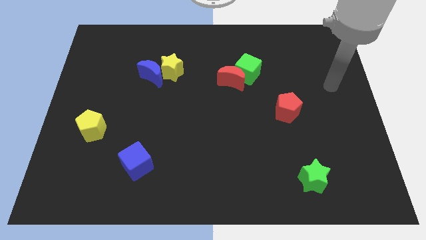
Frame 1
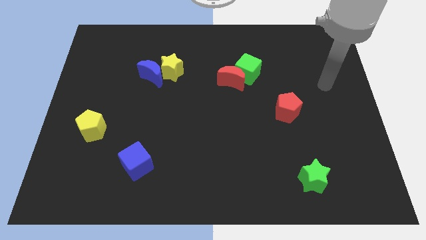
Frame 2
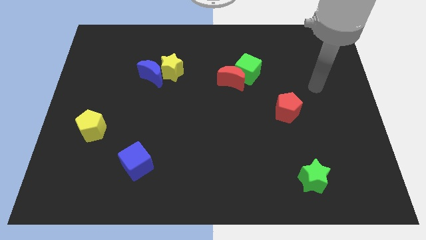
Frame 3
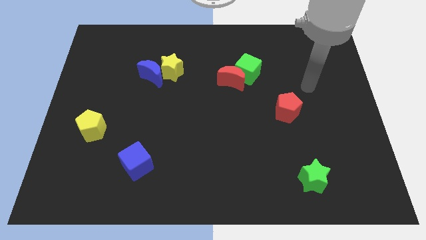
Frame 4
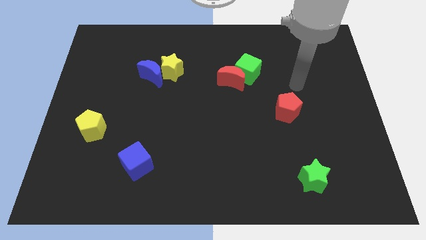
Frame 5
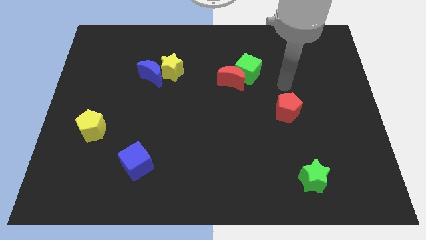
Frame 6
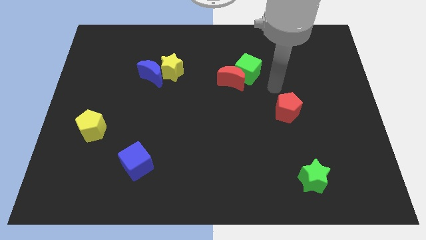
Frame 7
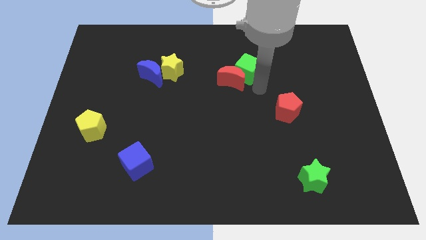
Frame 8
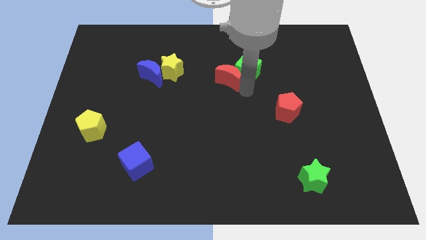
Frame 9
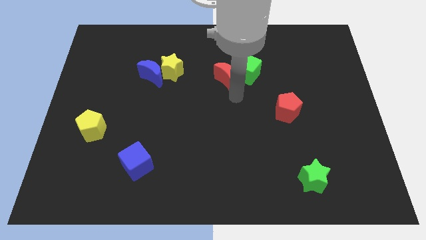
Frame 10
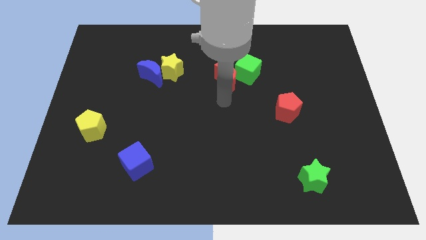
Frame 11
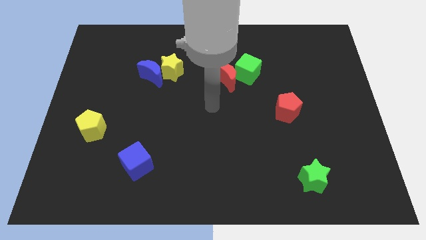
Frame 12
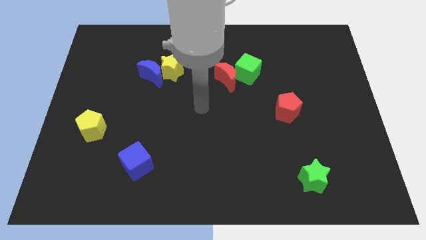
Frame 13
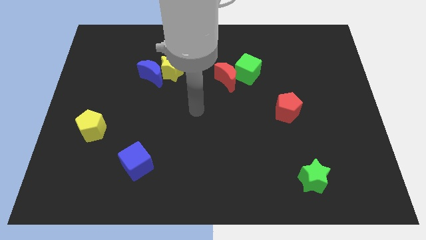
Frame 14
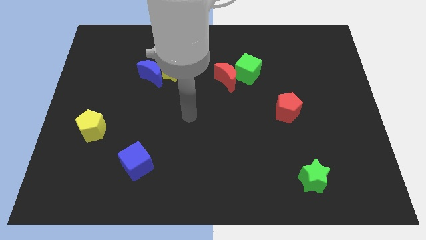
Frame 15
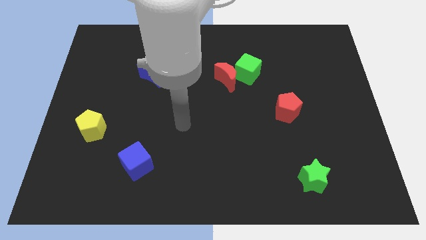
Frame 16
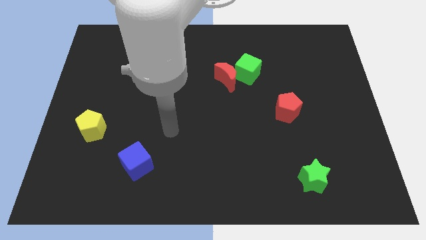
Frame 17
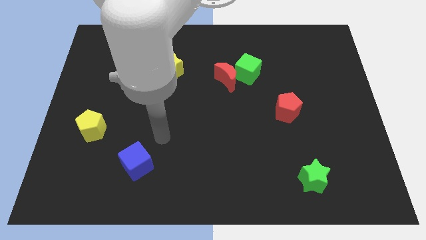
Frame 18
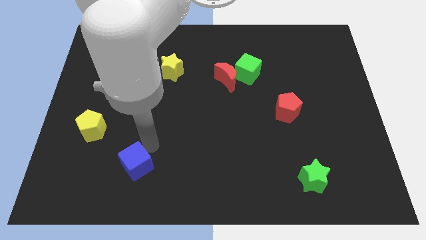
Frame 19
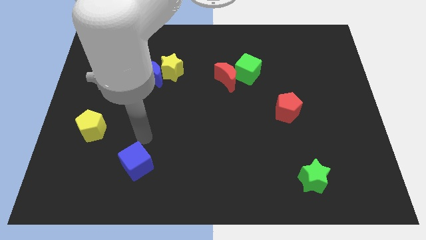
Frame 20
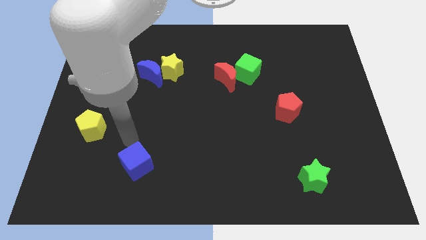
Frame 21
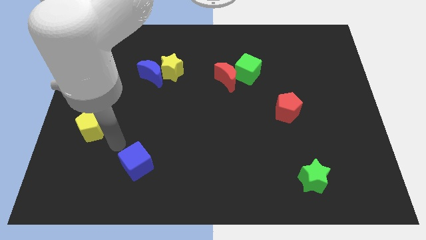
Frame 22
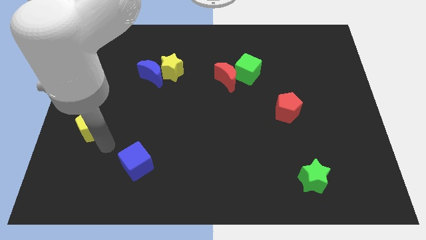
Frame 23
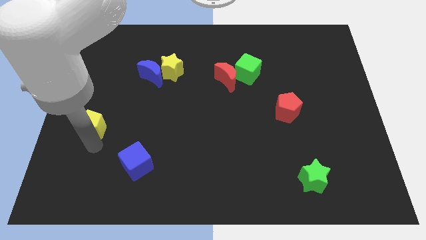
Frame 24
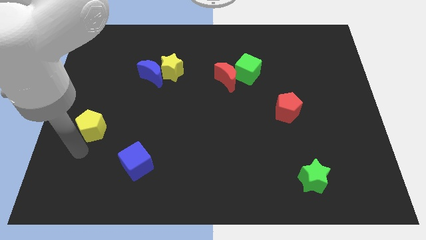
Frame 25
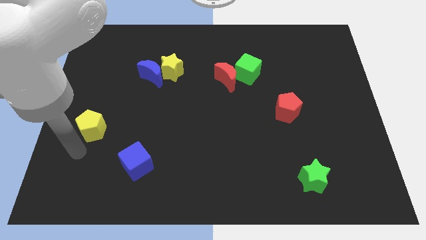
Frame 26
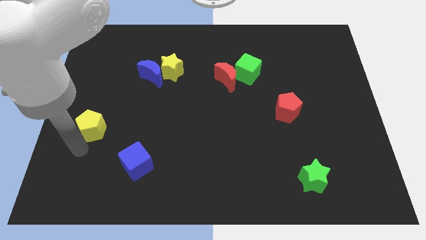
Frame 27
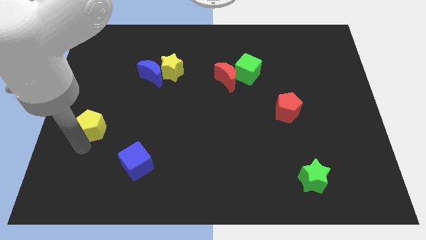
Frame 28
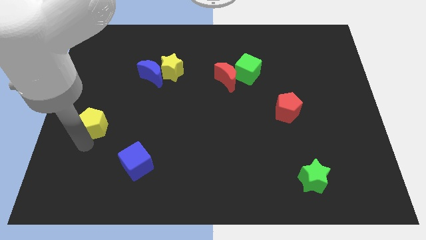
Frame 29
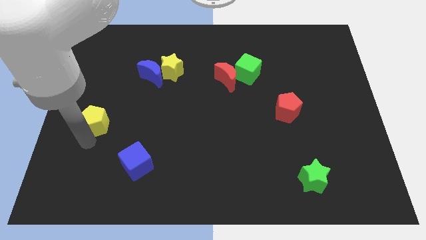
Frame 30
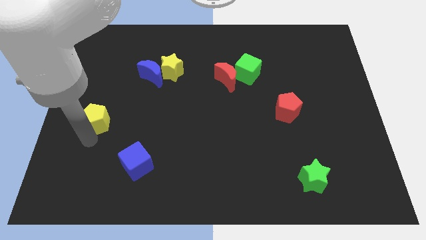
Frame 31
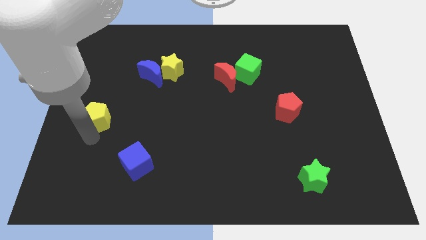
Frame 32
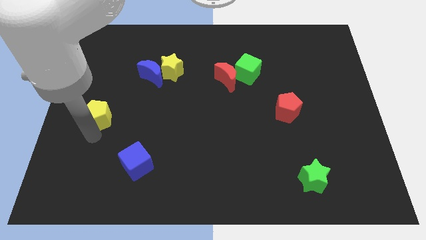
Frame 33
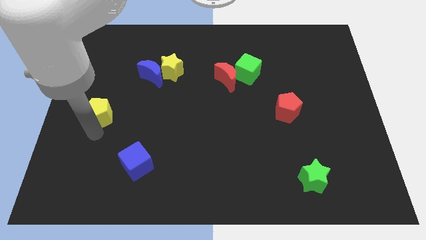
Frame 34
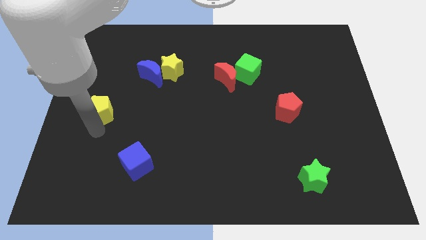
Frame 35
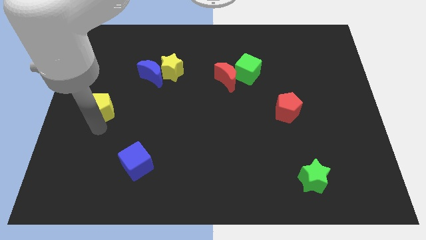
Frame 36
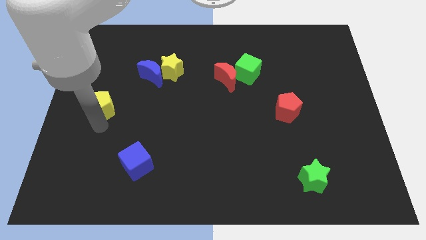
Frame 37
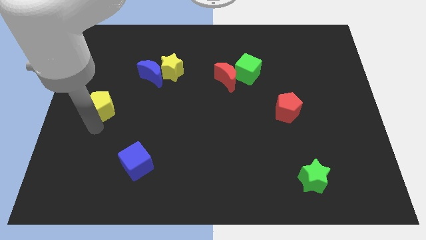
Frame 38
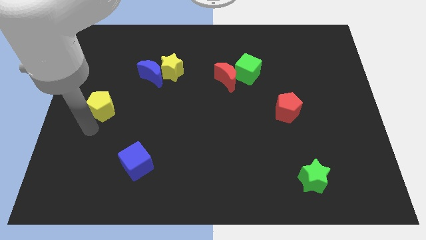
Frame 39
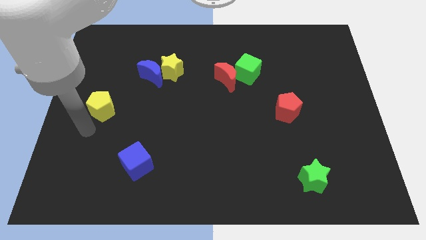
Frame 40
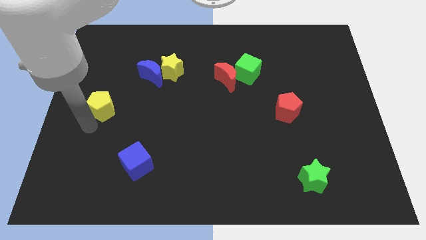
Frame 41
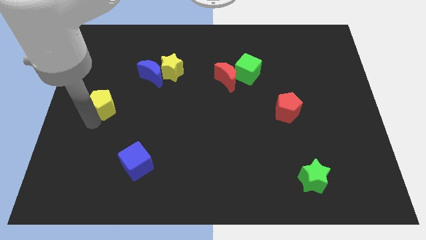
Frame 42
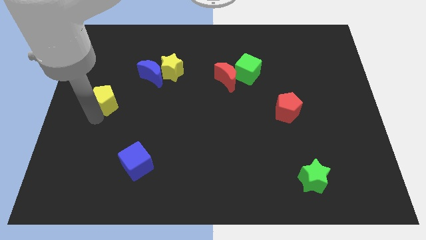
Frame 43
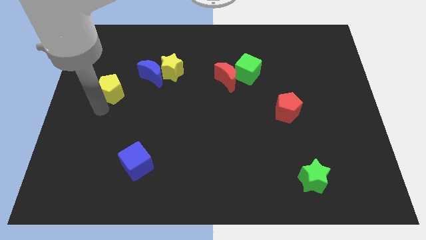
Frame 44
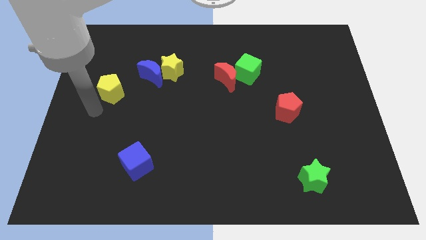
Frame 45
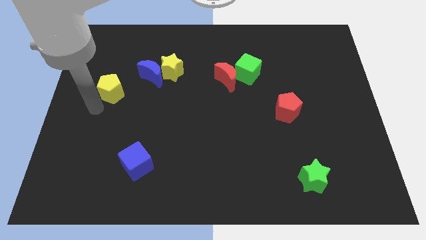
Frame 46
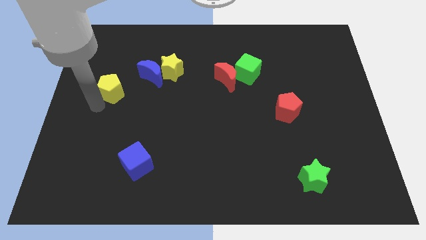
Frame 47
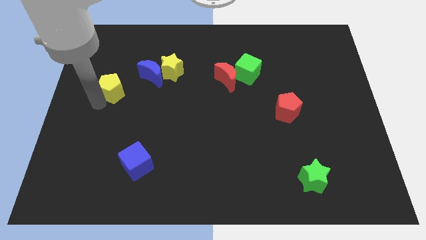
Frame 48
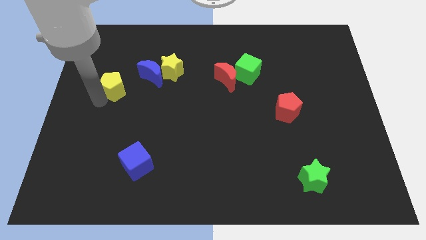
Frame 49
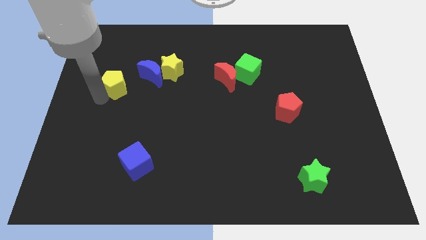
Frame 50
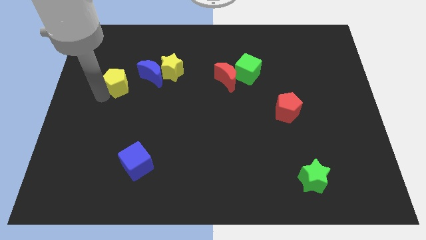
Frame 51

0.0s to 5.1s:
slide the yellow pentagon to the left side of the yellow star

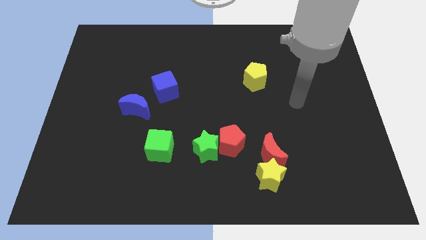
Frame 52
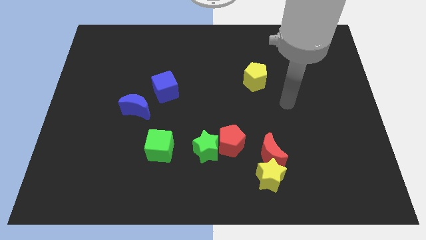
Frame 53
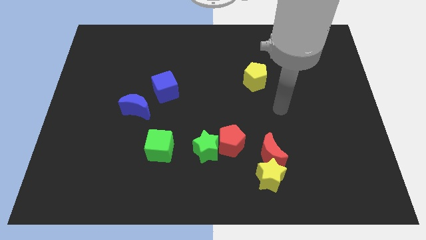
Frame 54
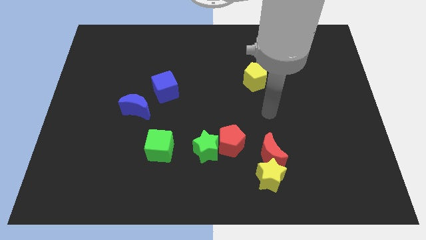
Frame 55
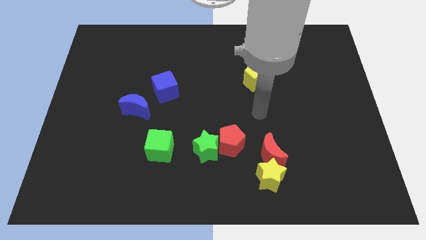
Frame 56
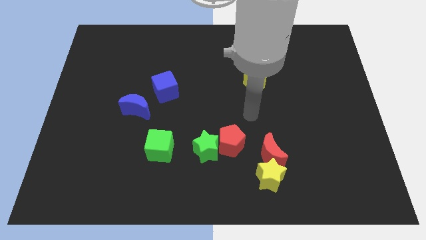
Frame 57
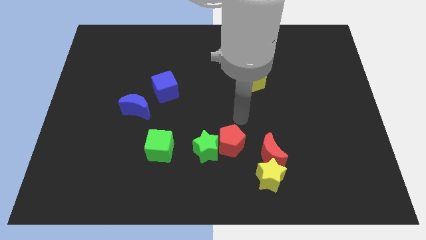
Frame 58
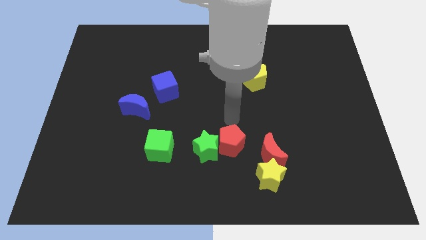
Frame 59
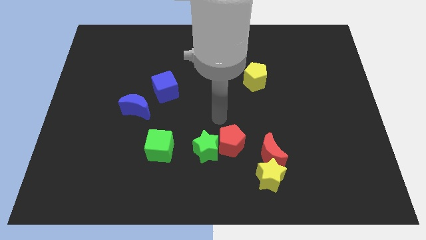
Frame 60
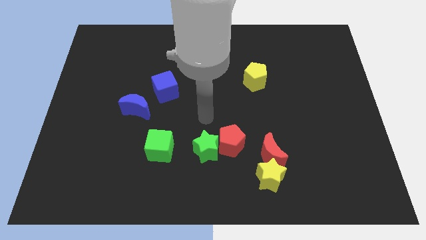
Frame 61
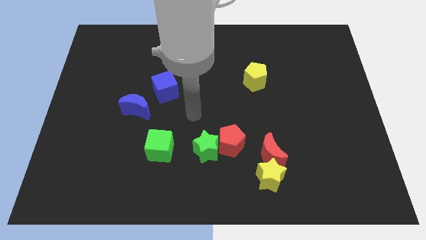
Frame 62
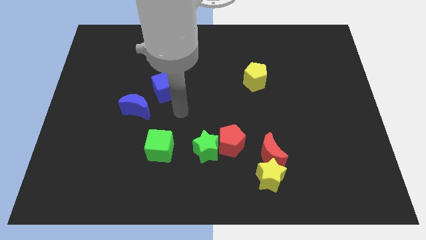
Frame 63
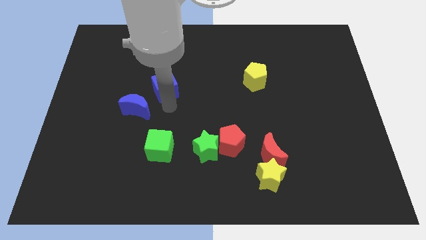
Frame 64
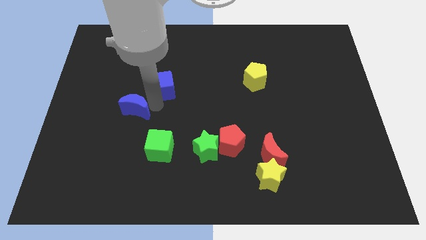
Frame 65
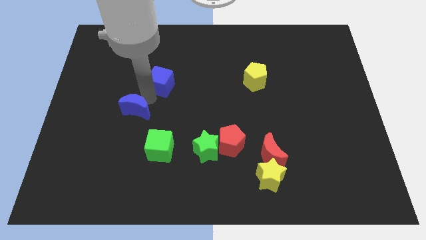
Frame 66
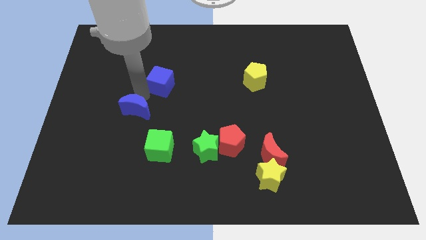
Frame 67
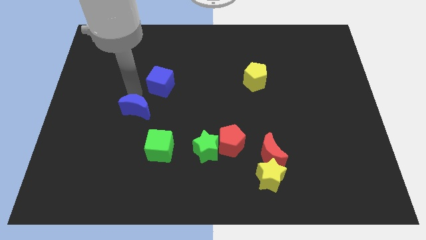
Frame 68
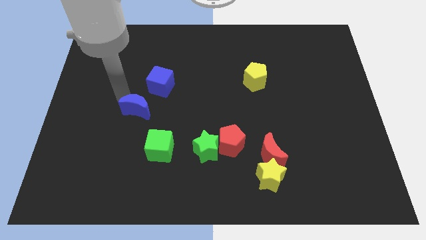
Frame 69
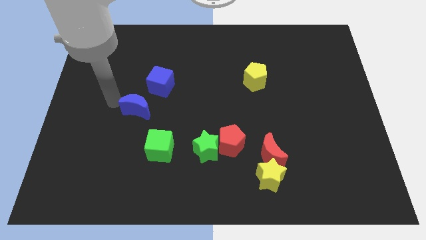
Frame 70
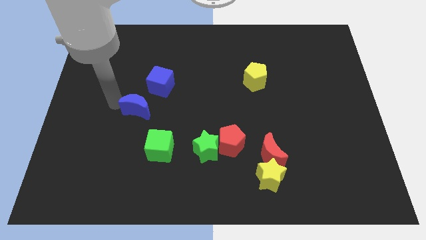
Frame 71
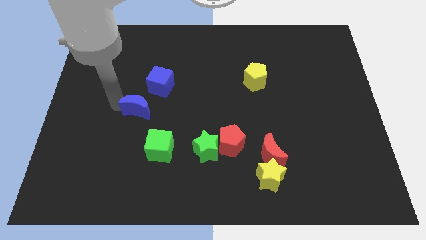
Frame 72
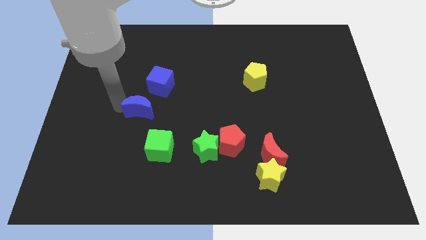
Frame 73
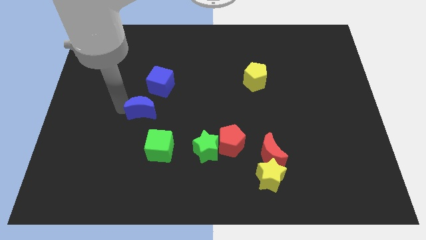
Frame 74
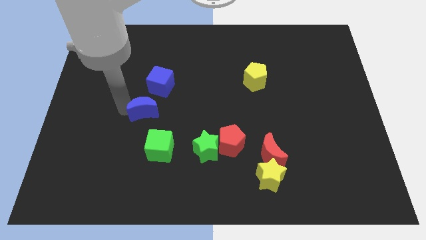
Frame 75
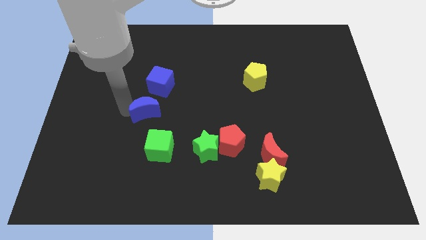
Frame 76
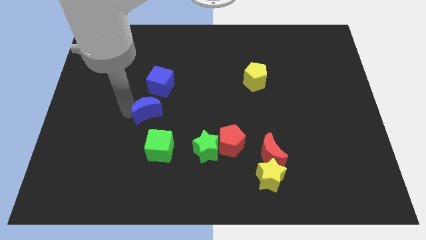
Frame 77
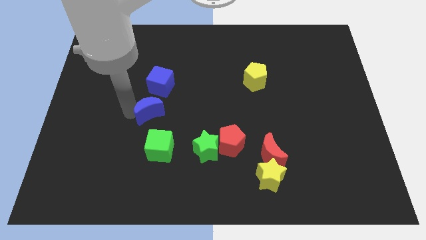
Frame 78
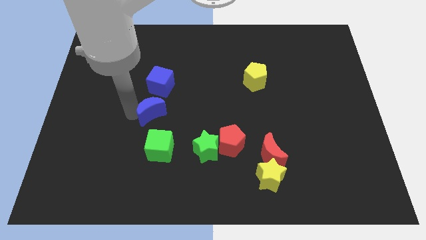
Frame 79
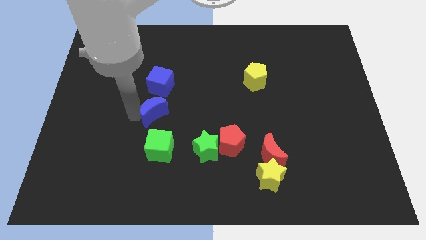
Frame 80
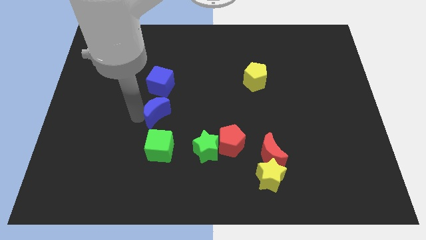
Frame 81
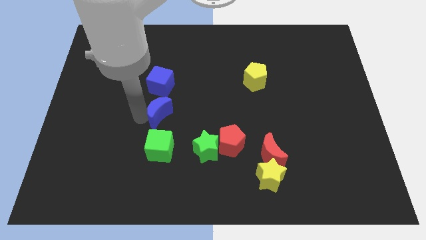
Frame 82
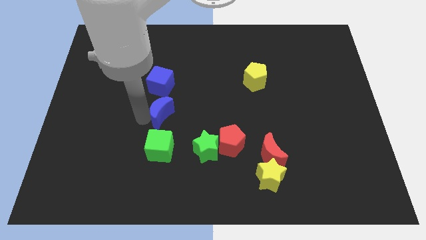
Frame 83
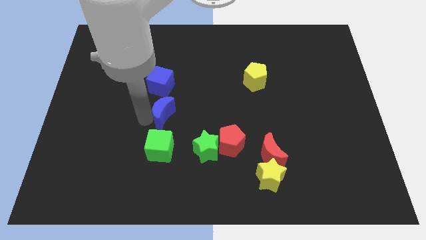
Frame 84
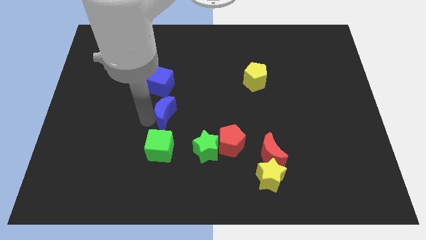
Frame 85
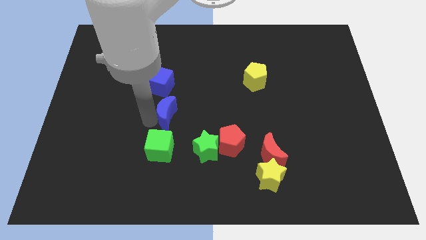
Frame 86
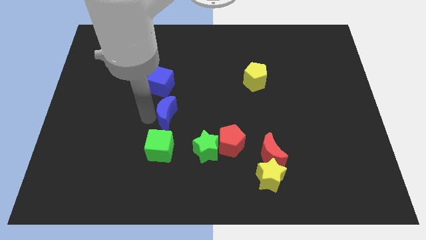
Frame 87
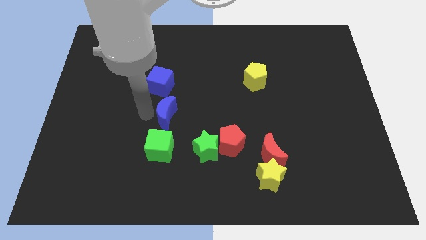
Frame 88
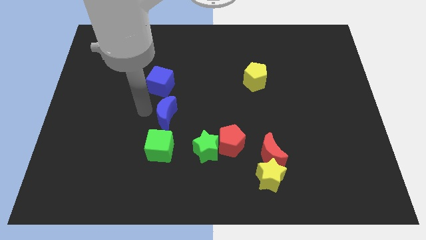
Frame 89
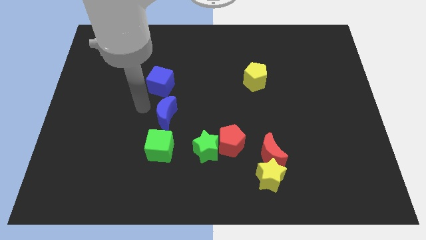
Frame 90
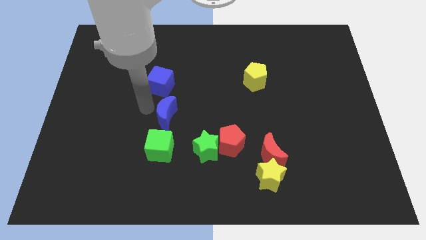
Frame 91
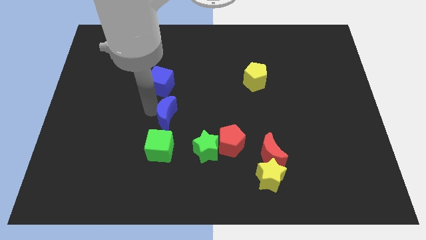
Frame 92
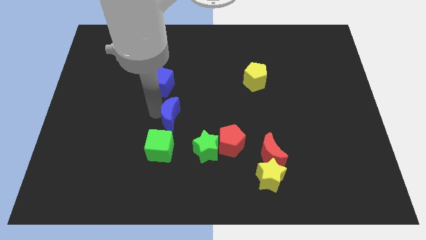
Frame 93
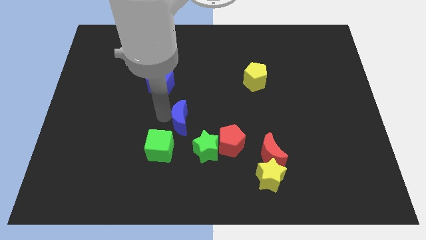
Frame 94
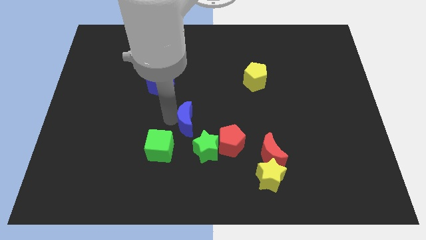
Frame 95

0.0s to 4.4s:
push the blue moon to the top left of the red pentagon
